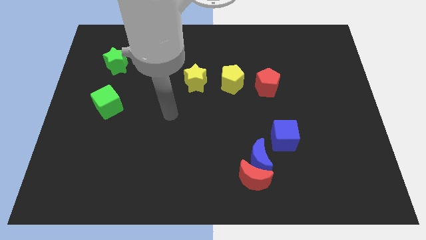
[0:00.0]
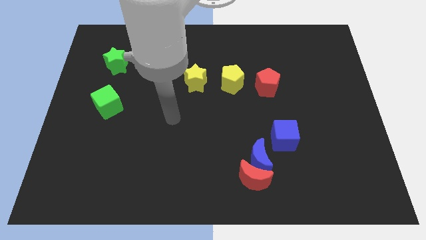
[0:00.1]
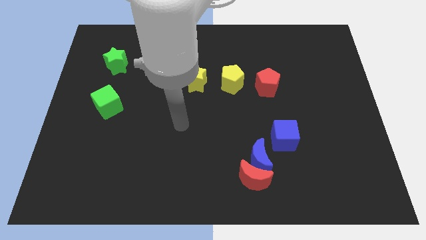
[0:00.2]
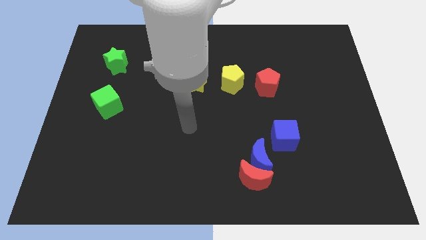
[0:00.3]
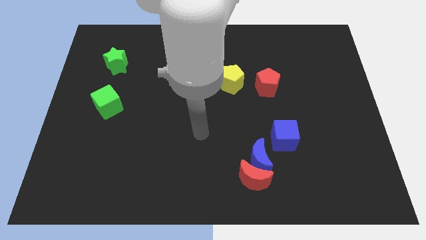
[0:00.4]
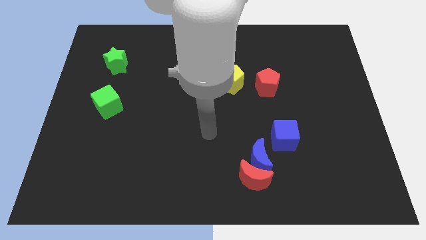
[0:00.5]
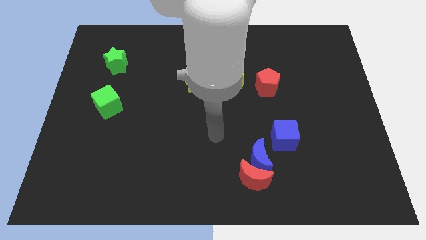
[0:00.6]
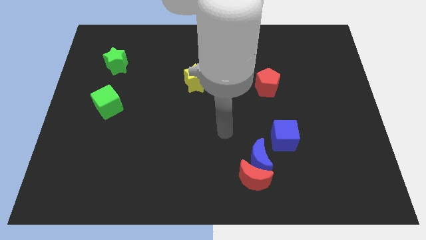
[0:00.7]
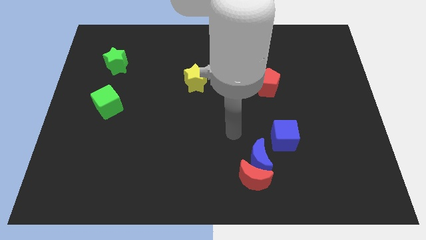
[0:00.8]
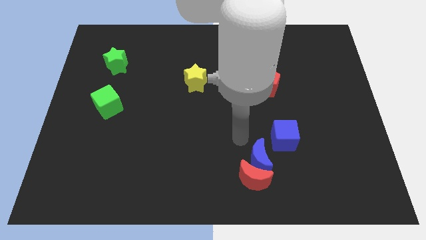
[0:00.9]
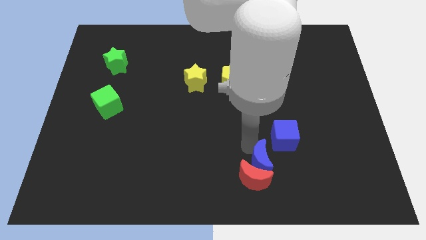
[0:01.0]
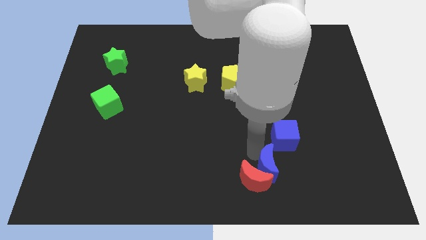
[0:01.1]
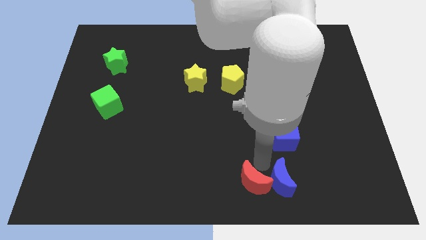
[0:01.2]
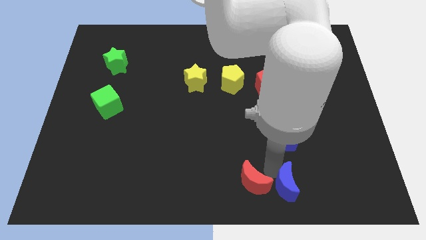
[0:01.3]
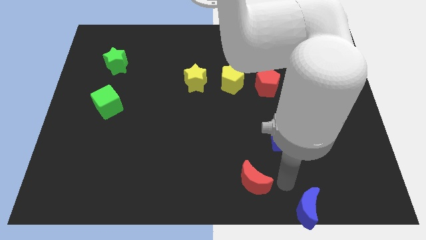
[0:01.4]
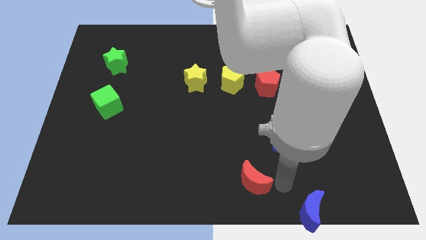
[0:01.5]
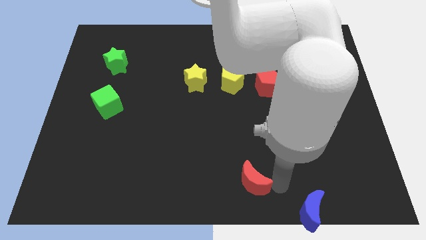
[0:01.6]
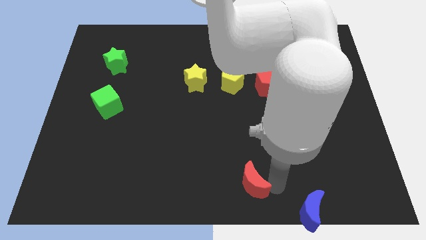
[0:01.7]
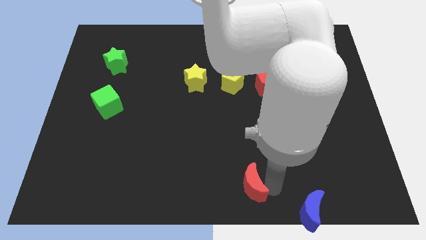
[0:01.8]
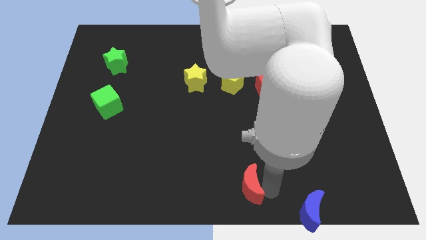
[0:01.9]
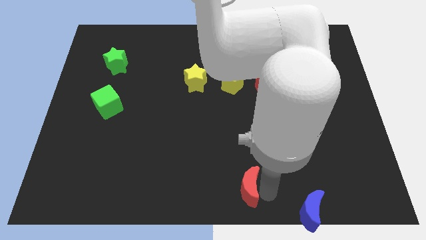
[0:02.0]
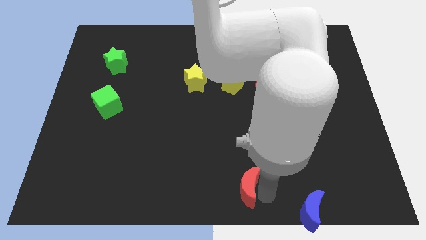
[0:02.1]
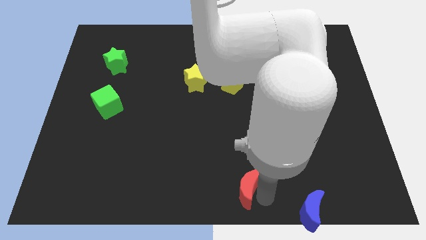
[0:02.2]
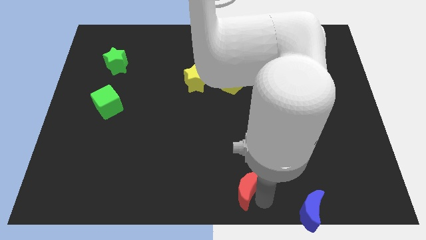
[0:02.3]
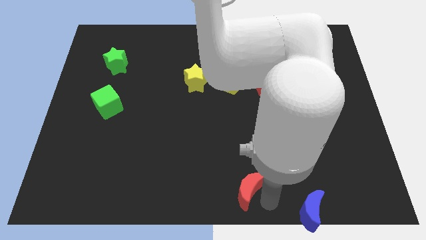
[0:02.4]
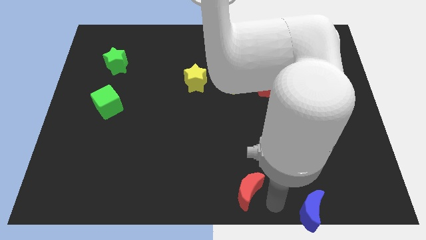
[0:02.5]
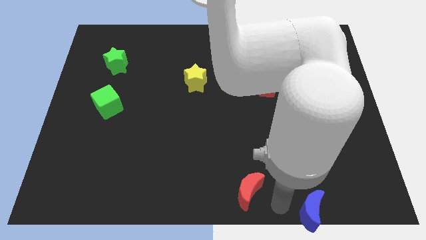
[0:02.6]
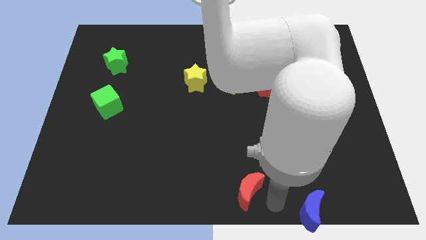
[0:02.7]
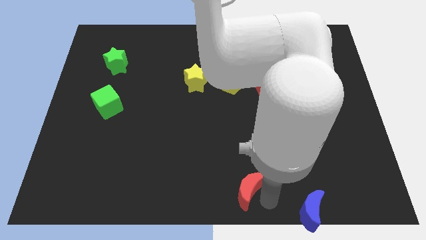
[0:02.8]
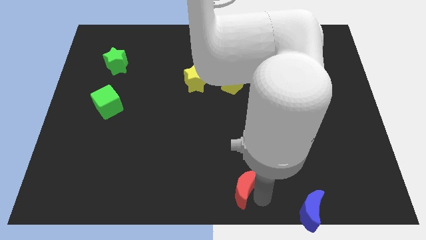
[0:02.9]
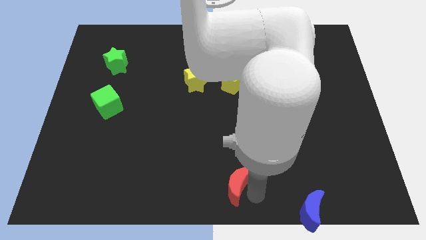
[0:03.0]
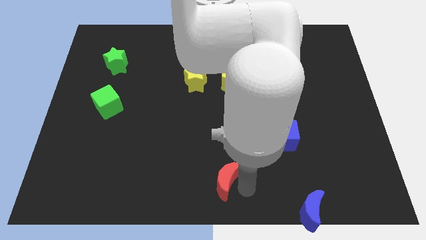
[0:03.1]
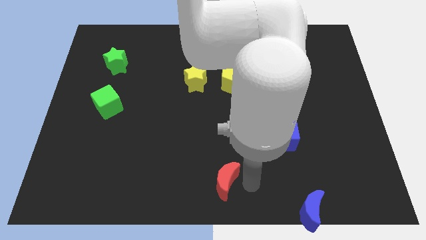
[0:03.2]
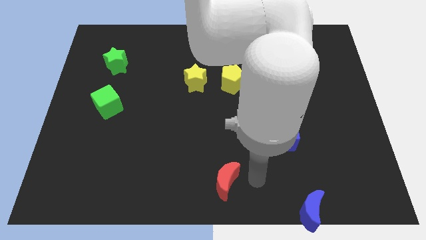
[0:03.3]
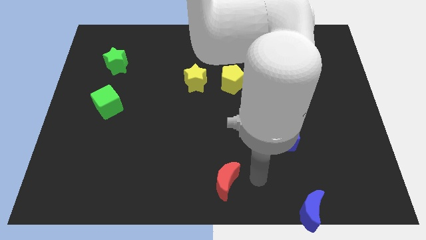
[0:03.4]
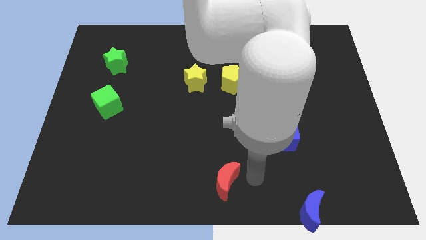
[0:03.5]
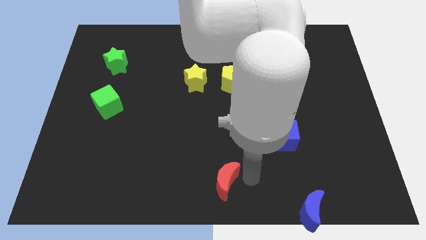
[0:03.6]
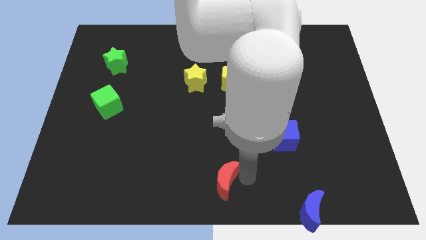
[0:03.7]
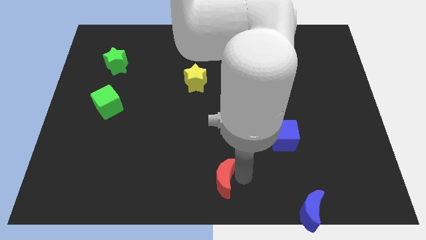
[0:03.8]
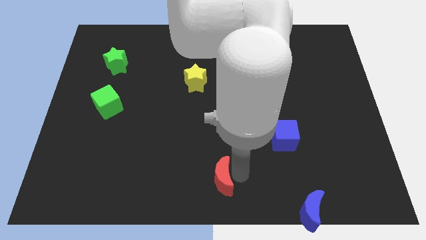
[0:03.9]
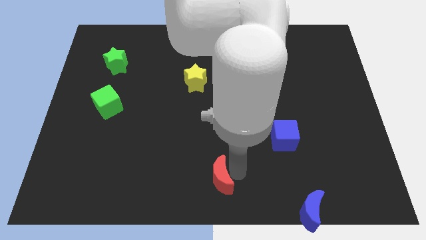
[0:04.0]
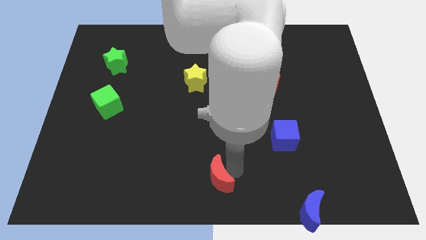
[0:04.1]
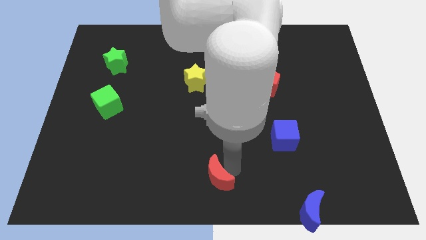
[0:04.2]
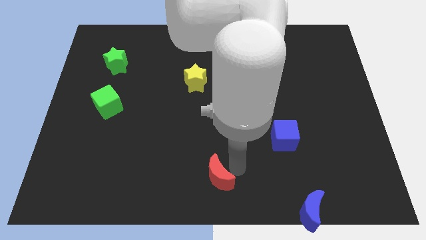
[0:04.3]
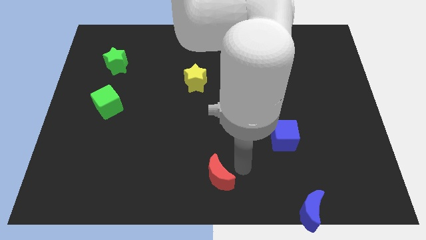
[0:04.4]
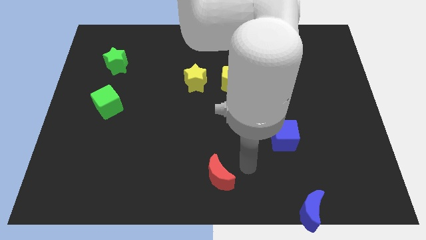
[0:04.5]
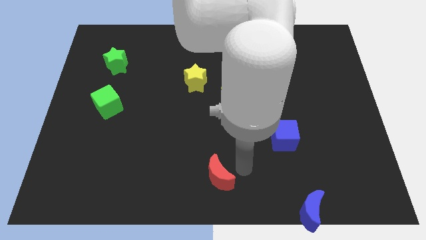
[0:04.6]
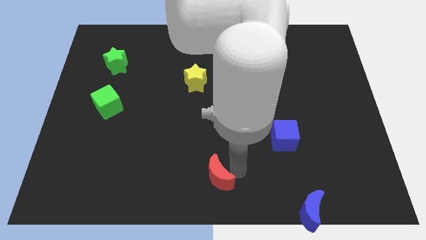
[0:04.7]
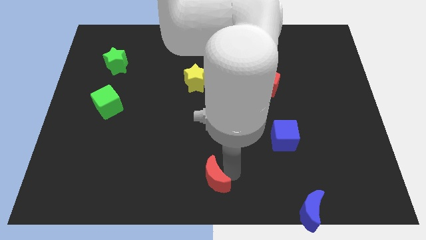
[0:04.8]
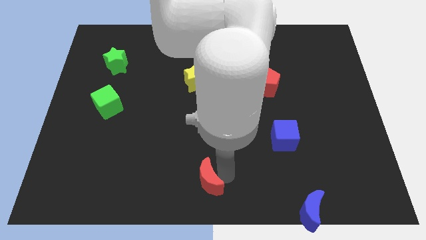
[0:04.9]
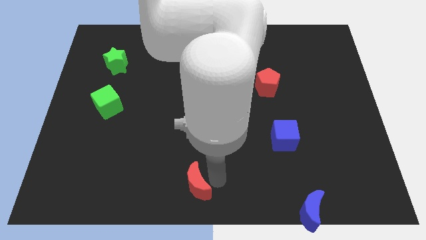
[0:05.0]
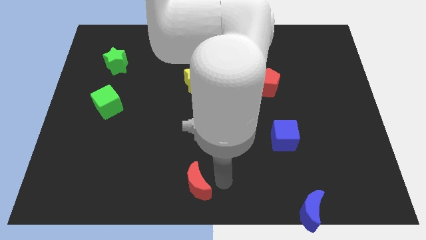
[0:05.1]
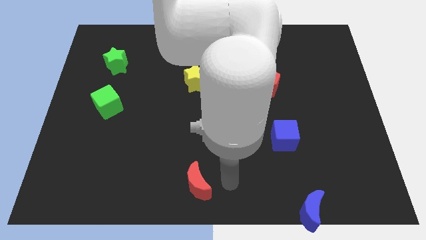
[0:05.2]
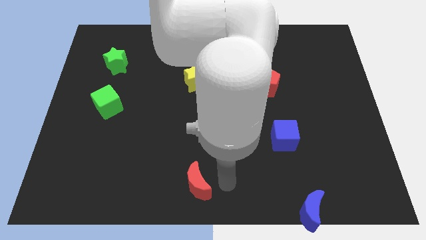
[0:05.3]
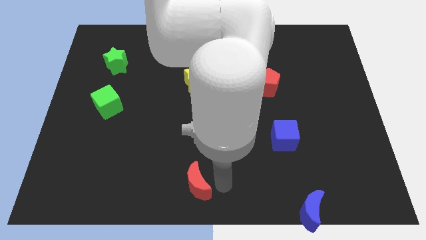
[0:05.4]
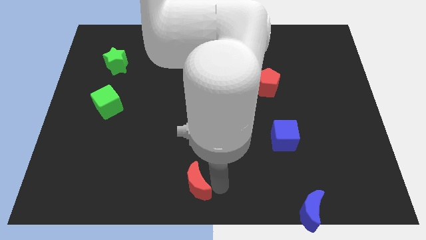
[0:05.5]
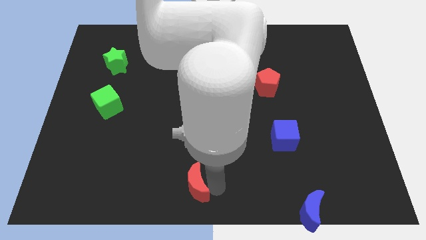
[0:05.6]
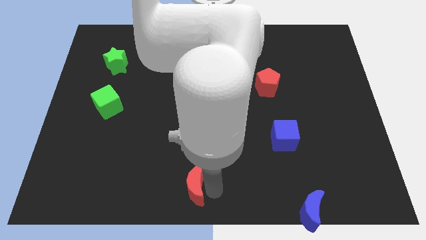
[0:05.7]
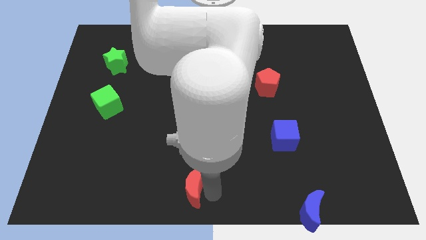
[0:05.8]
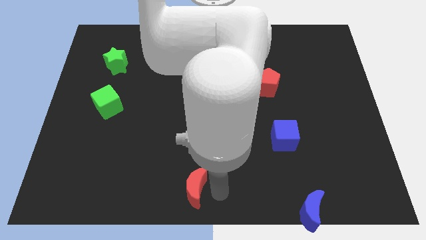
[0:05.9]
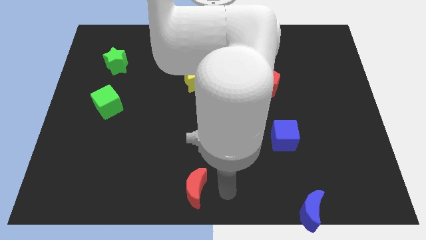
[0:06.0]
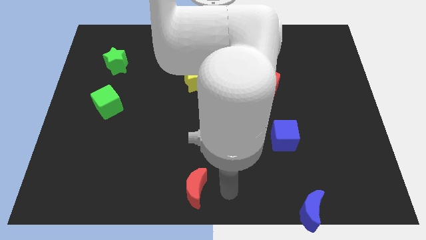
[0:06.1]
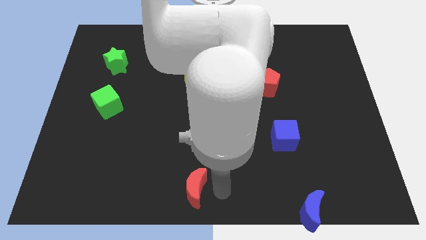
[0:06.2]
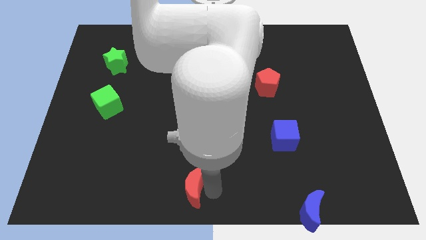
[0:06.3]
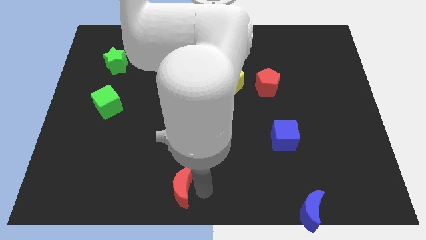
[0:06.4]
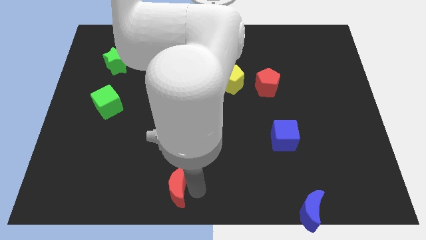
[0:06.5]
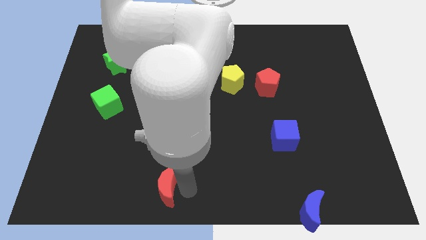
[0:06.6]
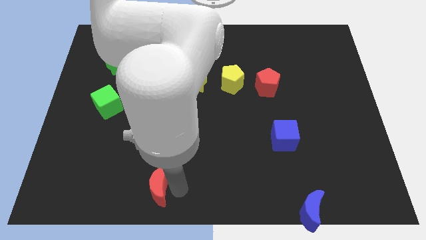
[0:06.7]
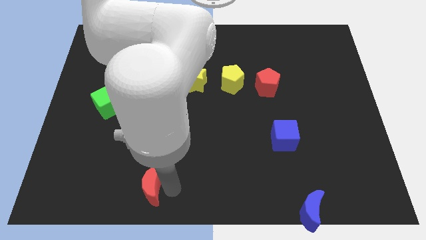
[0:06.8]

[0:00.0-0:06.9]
slide the red moon left

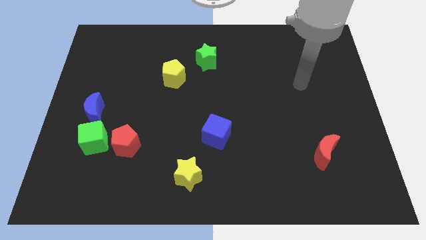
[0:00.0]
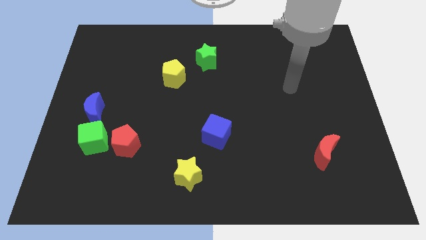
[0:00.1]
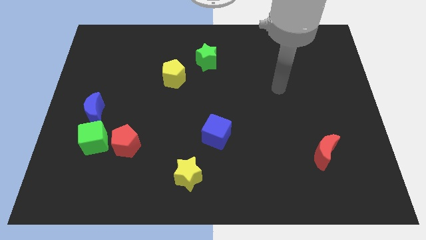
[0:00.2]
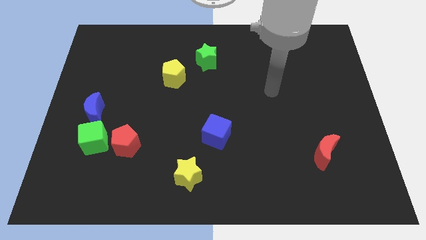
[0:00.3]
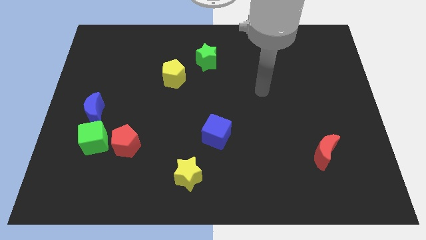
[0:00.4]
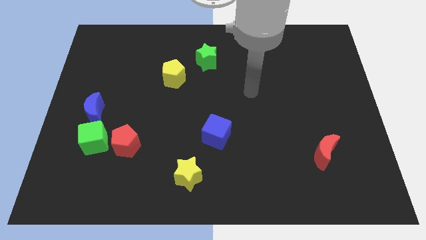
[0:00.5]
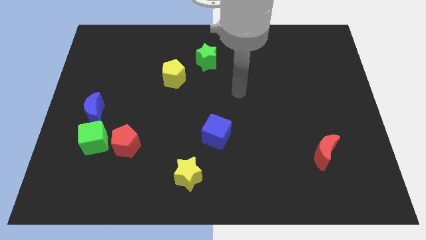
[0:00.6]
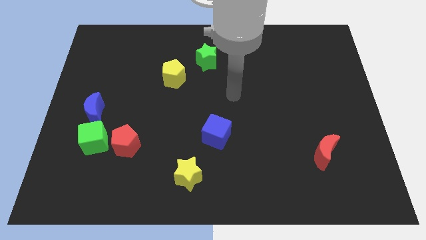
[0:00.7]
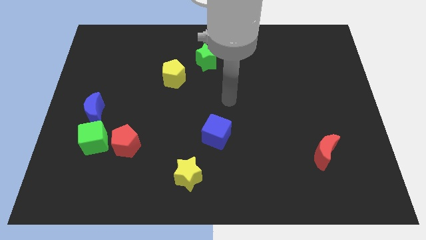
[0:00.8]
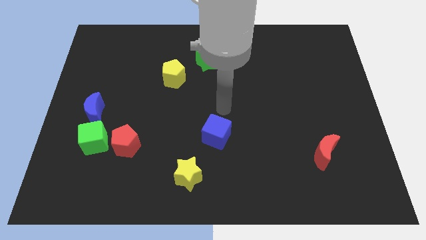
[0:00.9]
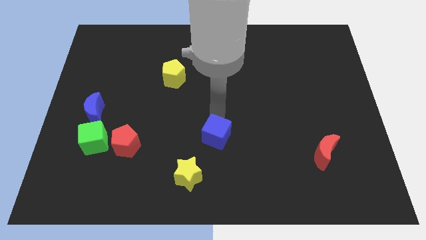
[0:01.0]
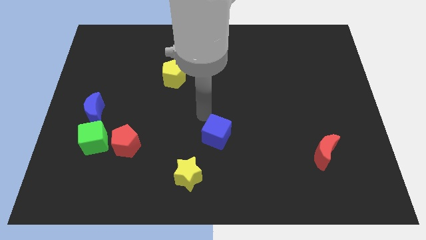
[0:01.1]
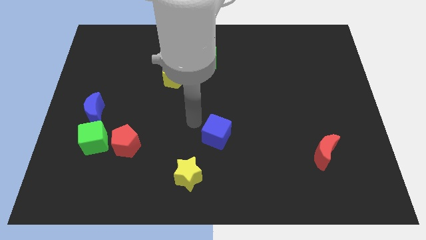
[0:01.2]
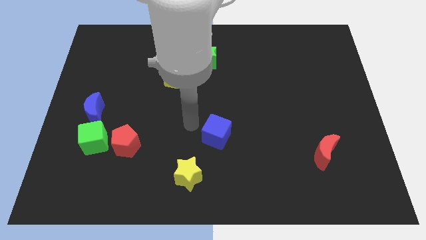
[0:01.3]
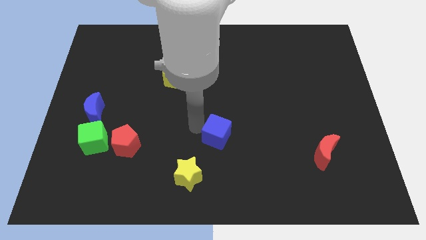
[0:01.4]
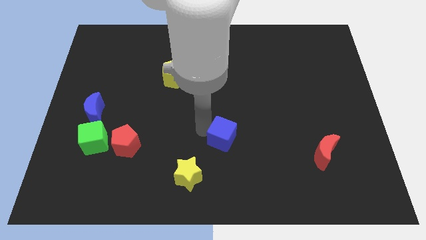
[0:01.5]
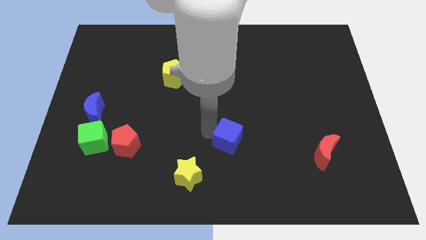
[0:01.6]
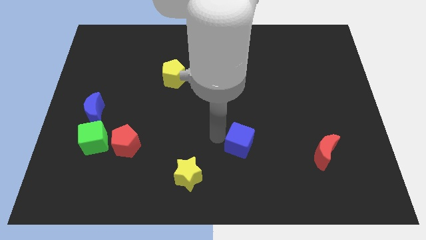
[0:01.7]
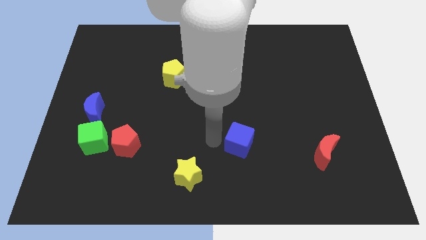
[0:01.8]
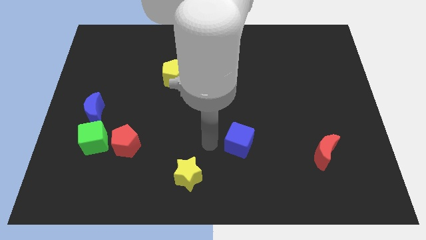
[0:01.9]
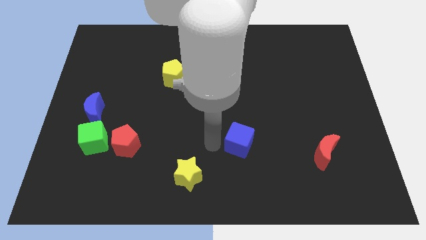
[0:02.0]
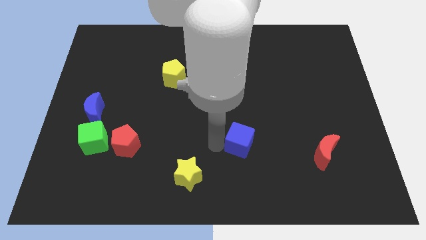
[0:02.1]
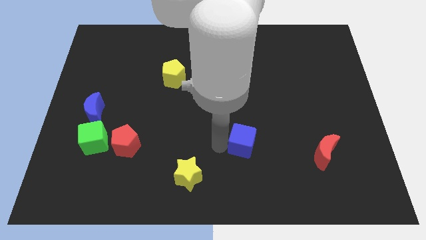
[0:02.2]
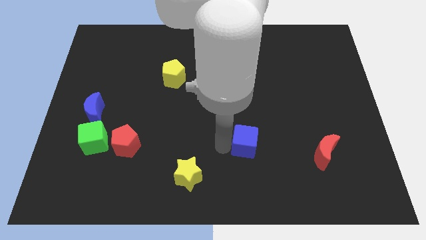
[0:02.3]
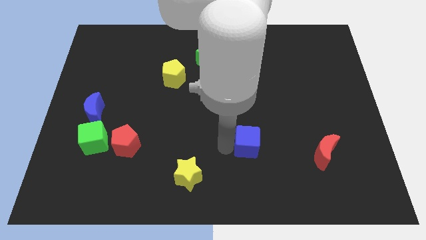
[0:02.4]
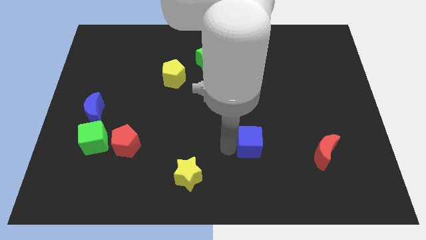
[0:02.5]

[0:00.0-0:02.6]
slightly slide the blue cube right
